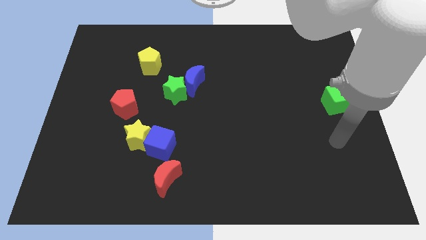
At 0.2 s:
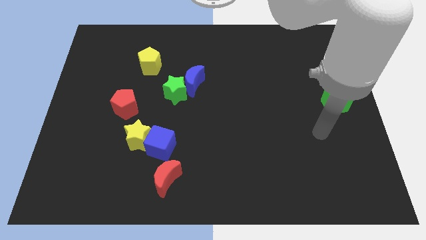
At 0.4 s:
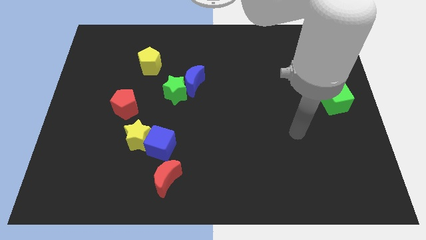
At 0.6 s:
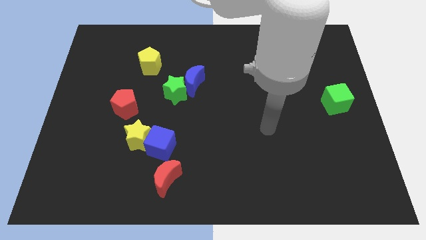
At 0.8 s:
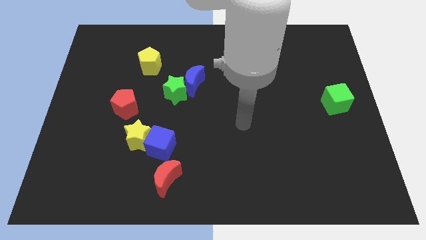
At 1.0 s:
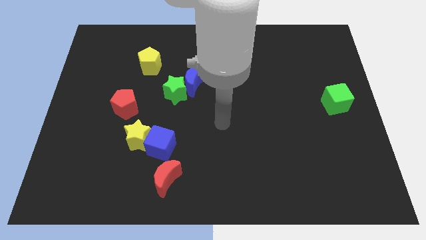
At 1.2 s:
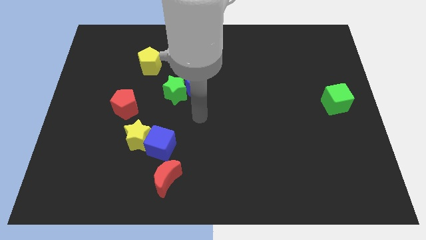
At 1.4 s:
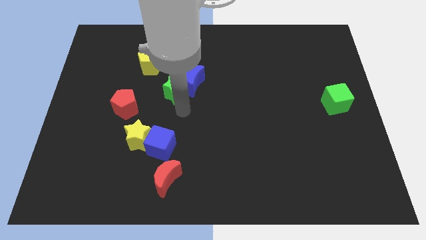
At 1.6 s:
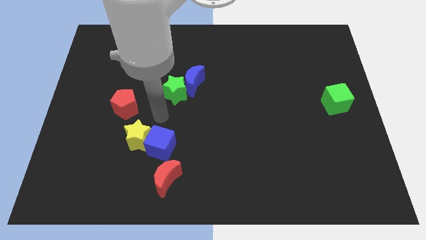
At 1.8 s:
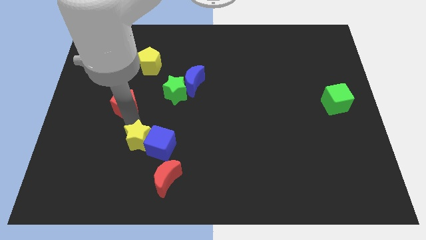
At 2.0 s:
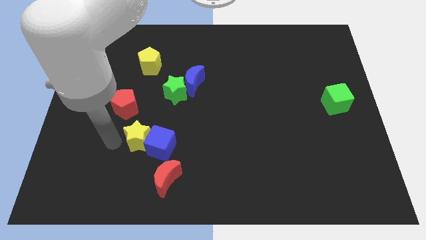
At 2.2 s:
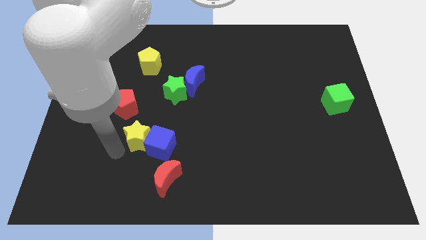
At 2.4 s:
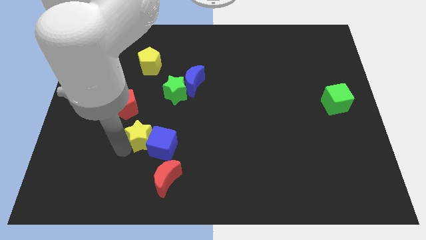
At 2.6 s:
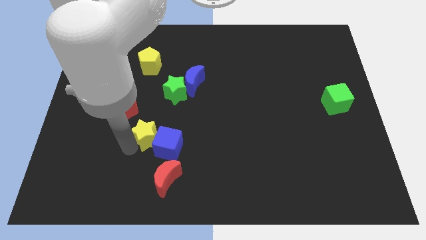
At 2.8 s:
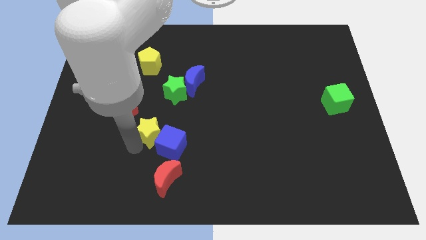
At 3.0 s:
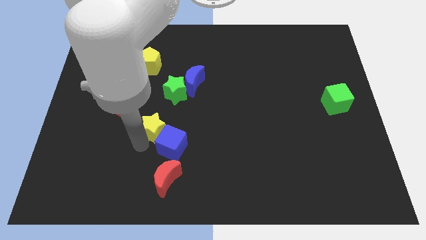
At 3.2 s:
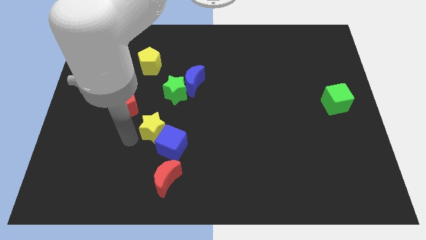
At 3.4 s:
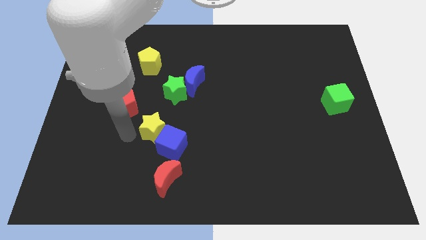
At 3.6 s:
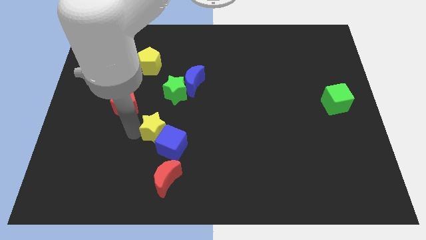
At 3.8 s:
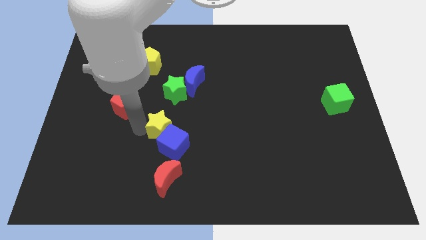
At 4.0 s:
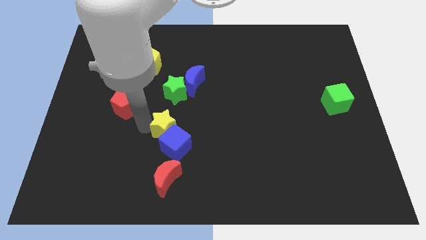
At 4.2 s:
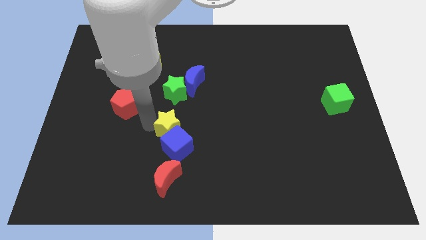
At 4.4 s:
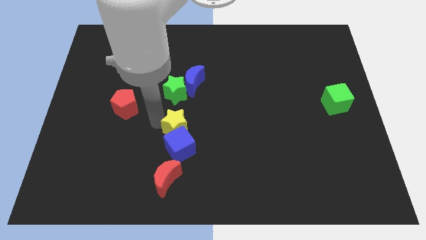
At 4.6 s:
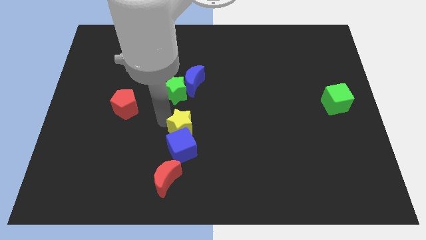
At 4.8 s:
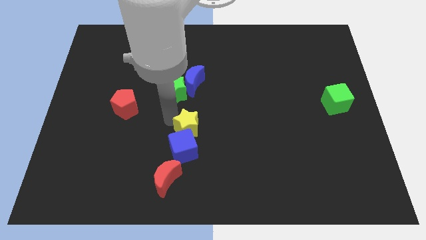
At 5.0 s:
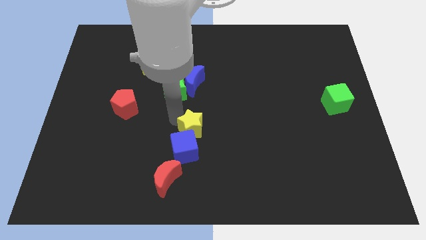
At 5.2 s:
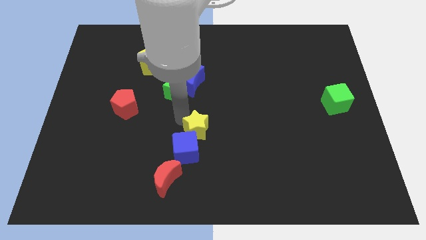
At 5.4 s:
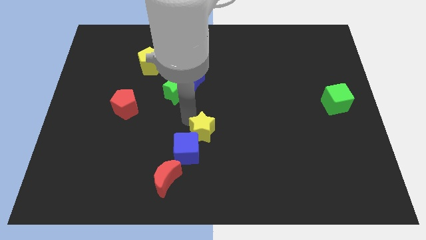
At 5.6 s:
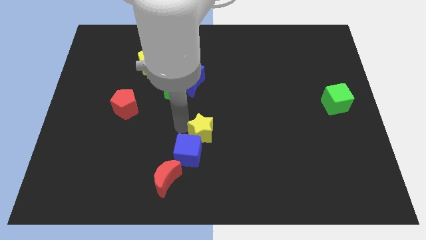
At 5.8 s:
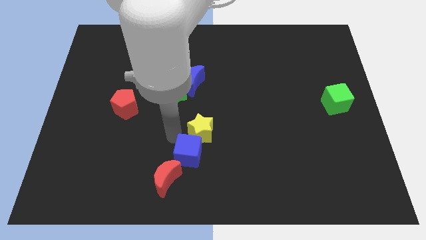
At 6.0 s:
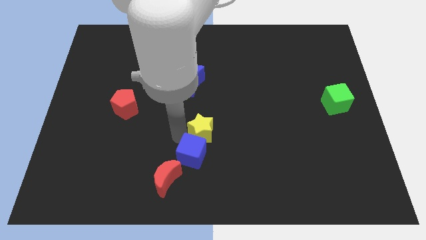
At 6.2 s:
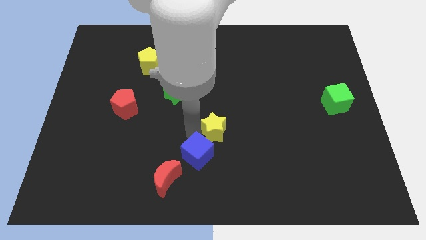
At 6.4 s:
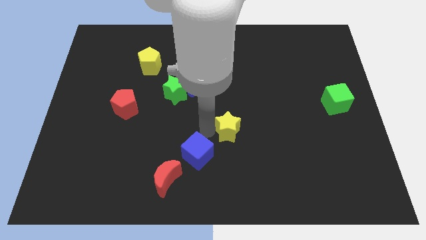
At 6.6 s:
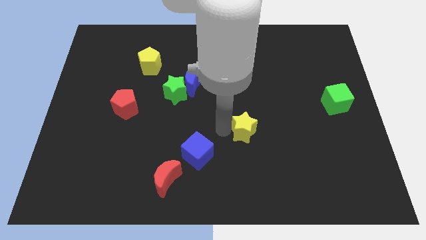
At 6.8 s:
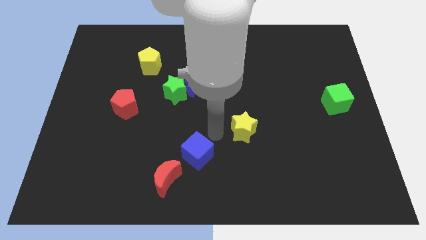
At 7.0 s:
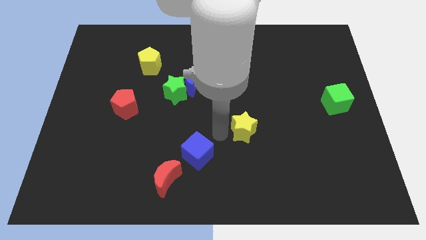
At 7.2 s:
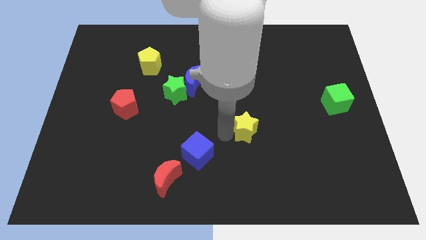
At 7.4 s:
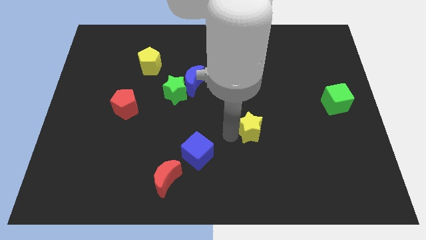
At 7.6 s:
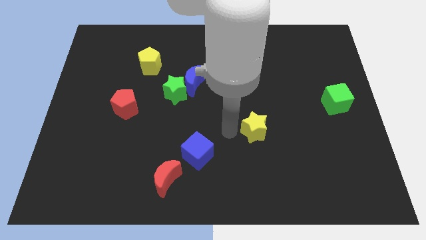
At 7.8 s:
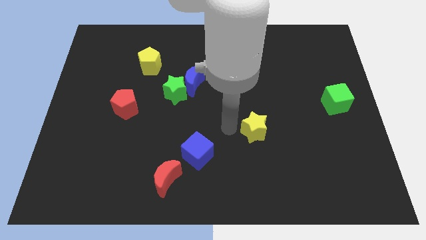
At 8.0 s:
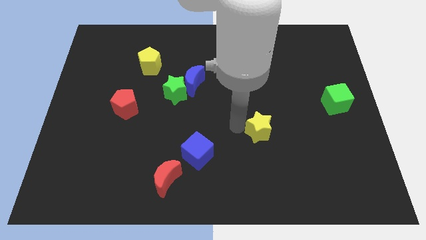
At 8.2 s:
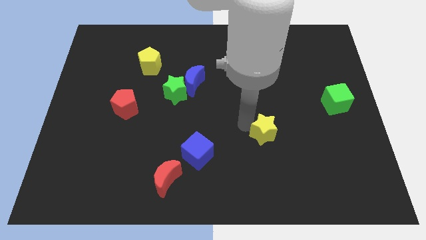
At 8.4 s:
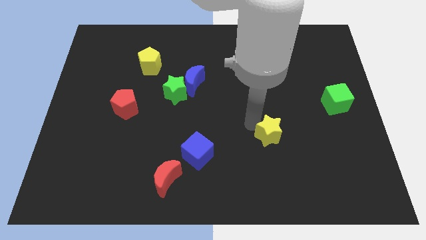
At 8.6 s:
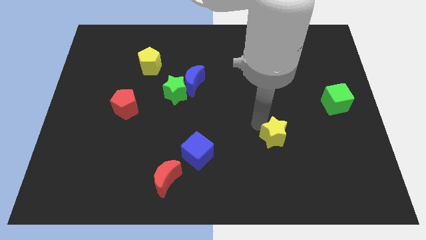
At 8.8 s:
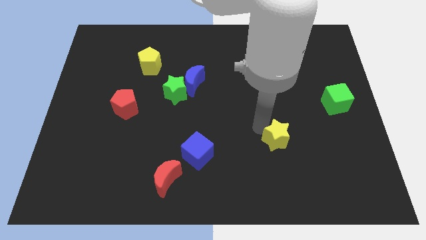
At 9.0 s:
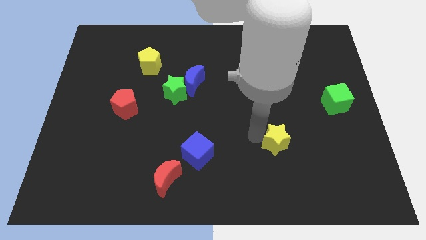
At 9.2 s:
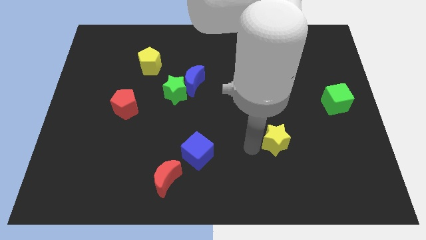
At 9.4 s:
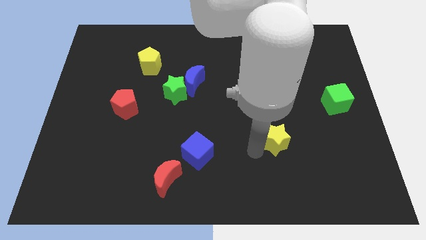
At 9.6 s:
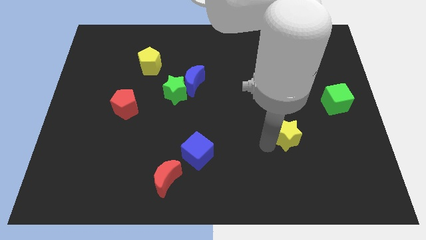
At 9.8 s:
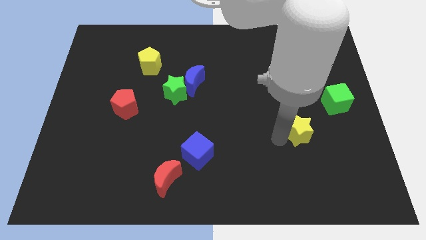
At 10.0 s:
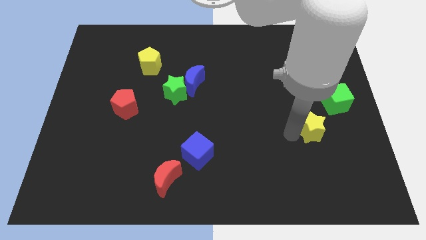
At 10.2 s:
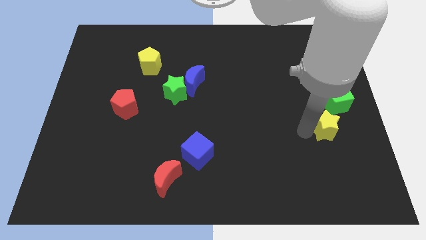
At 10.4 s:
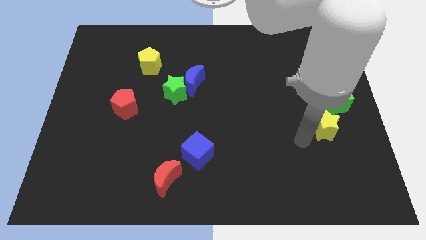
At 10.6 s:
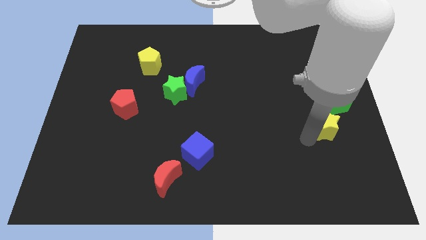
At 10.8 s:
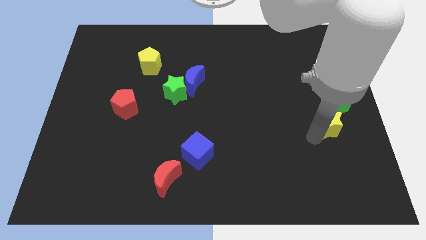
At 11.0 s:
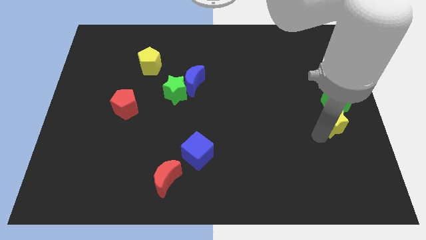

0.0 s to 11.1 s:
put the yellow star to the center right

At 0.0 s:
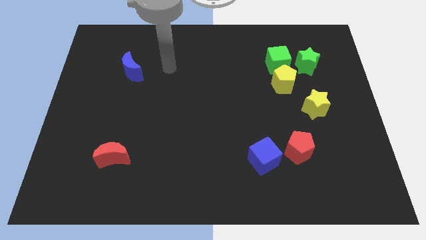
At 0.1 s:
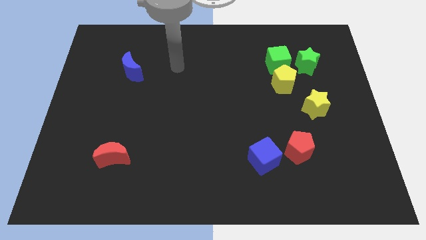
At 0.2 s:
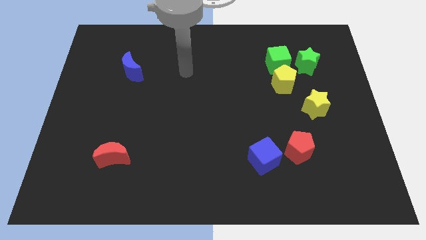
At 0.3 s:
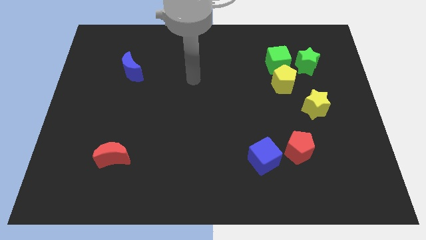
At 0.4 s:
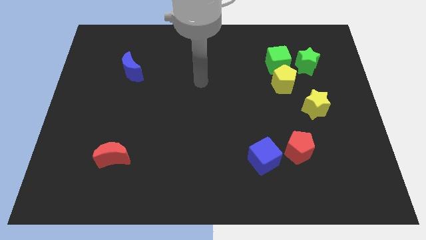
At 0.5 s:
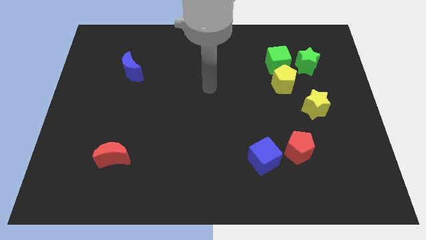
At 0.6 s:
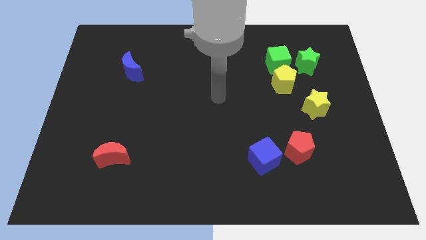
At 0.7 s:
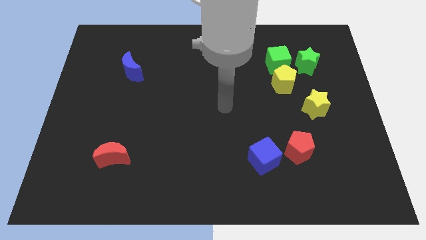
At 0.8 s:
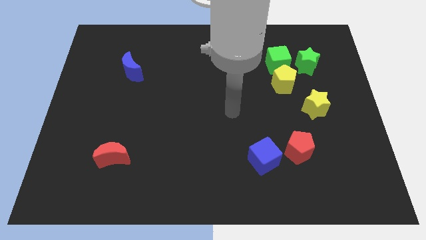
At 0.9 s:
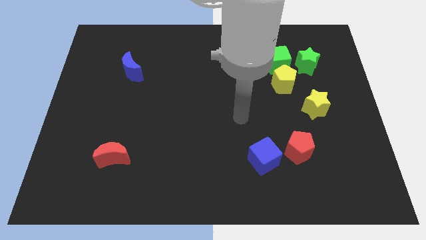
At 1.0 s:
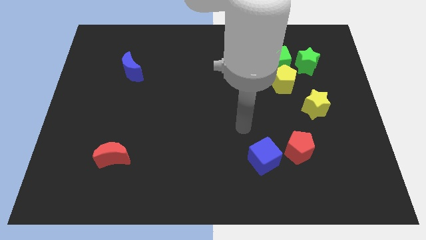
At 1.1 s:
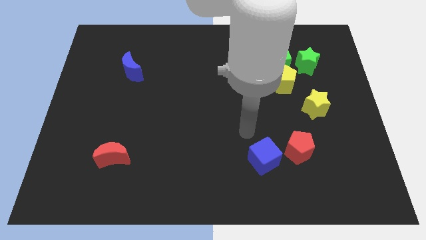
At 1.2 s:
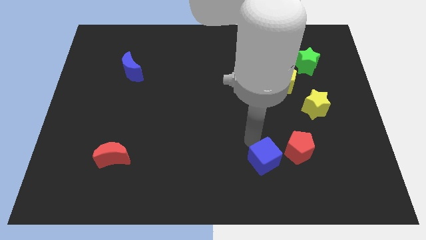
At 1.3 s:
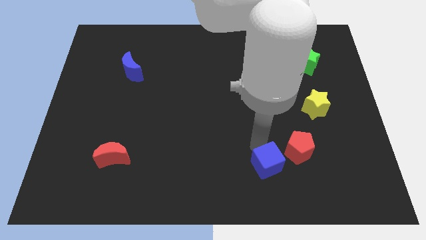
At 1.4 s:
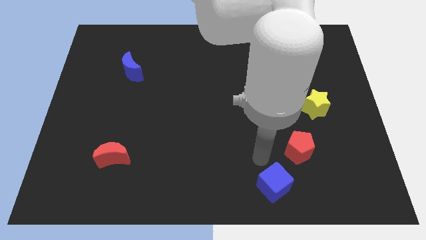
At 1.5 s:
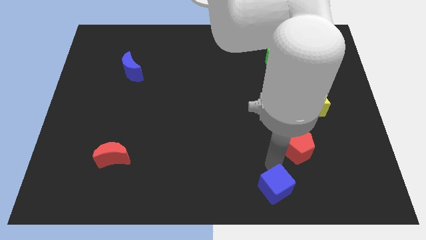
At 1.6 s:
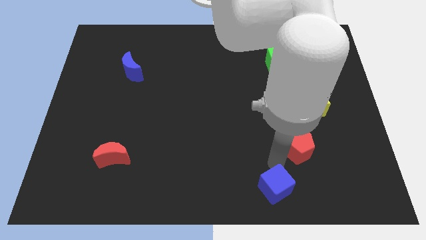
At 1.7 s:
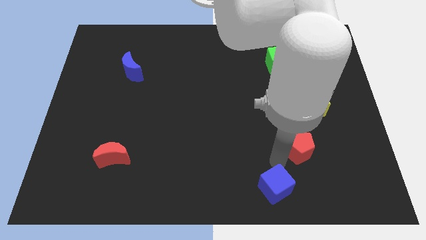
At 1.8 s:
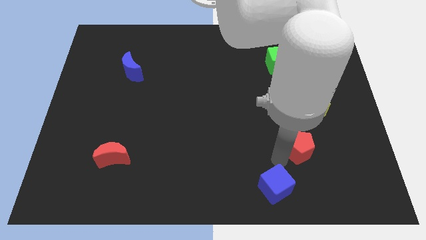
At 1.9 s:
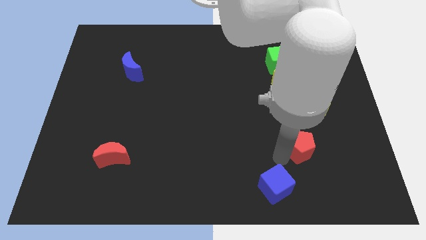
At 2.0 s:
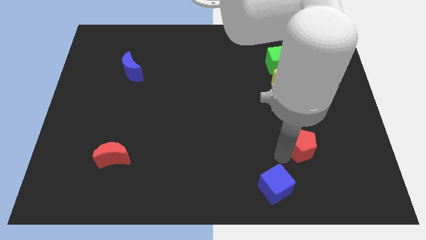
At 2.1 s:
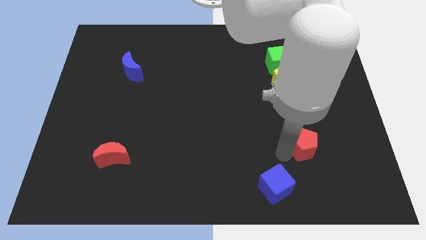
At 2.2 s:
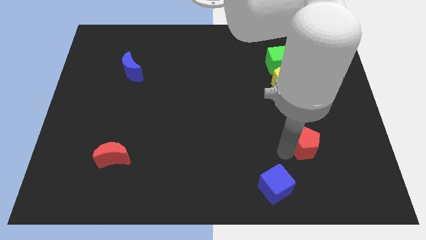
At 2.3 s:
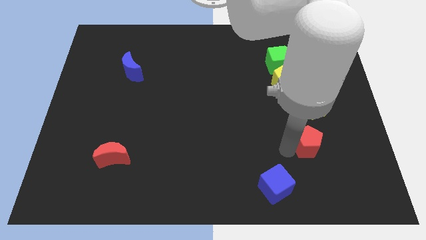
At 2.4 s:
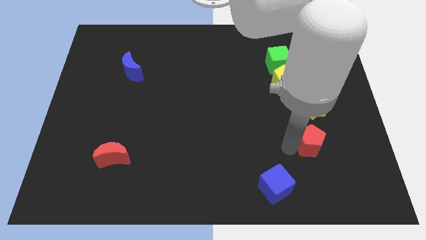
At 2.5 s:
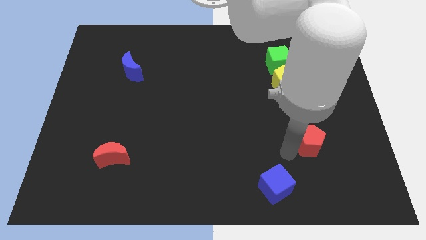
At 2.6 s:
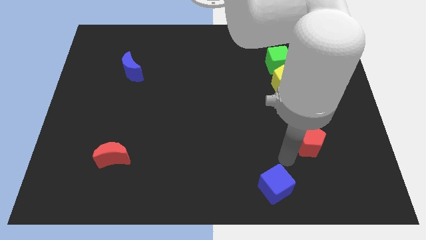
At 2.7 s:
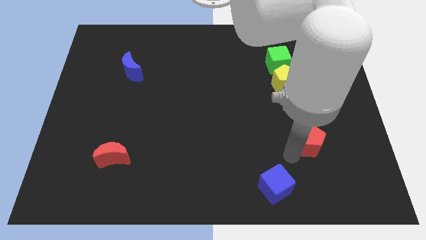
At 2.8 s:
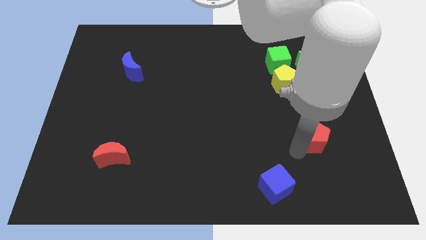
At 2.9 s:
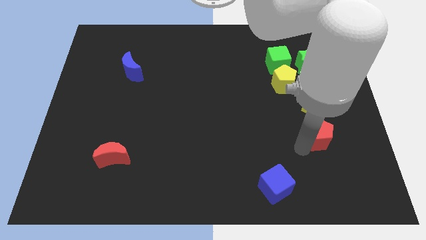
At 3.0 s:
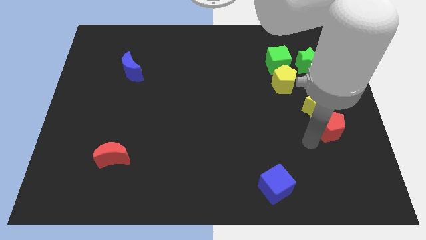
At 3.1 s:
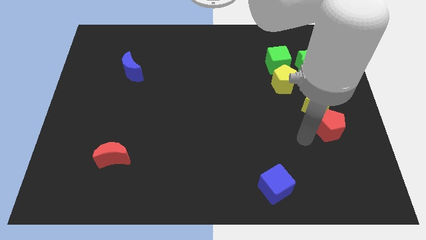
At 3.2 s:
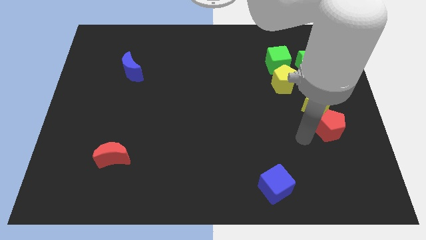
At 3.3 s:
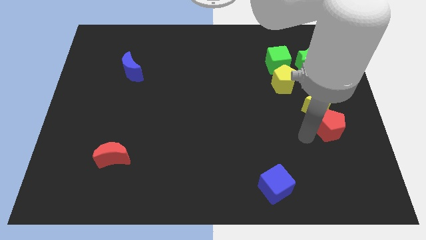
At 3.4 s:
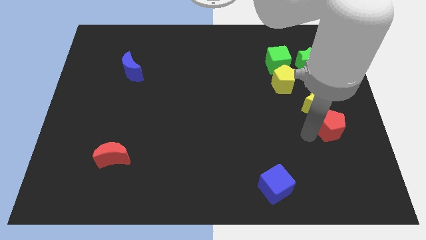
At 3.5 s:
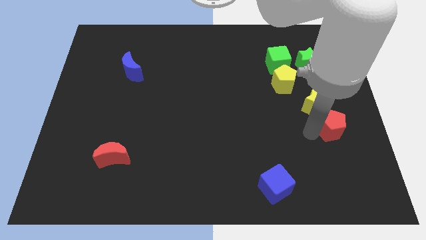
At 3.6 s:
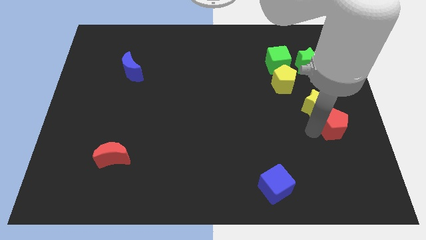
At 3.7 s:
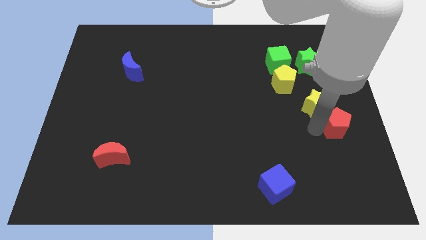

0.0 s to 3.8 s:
slide the red pentagon to the right side
